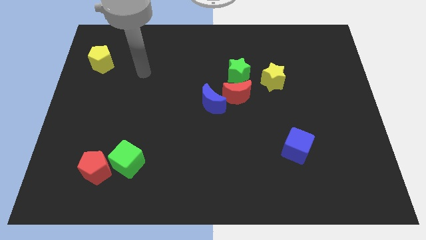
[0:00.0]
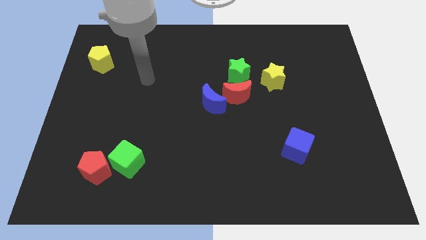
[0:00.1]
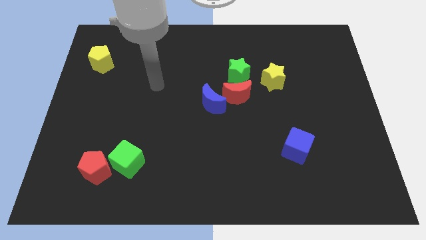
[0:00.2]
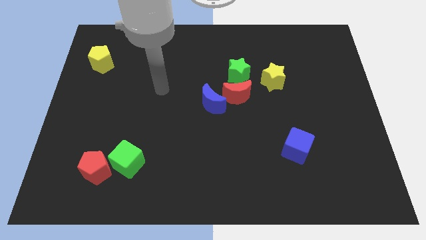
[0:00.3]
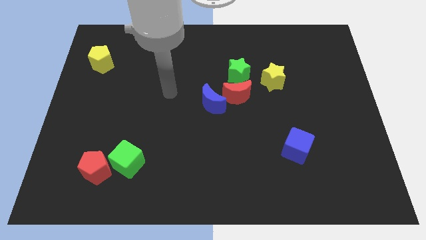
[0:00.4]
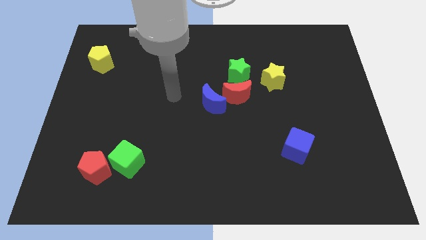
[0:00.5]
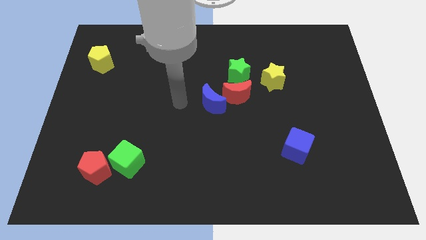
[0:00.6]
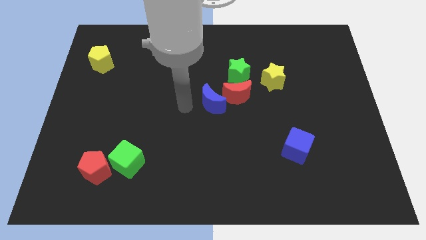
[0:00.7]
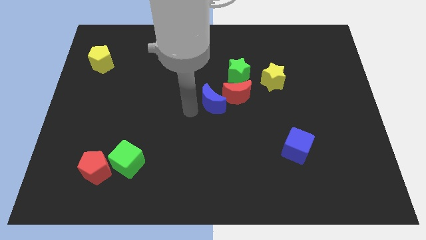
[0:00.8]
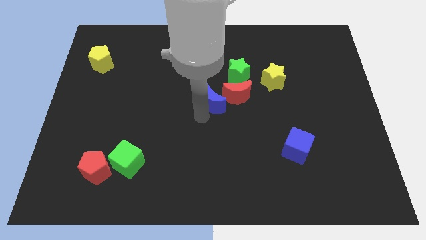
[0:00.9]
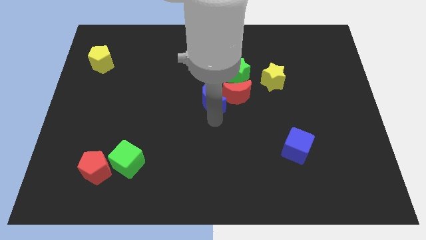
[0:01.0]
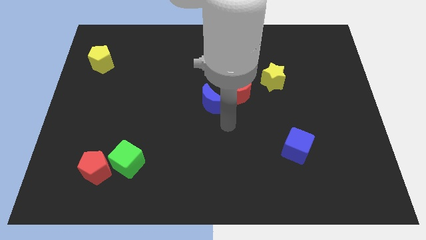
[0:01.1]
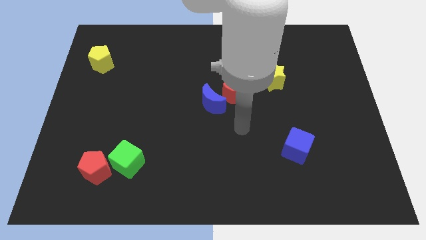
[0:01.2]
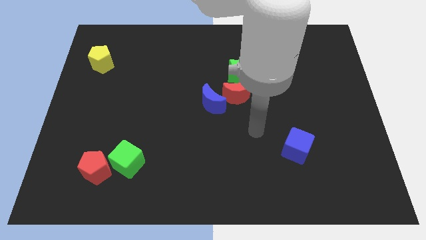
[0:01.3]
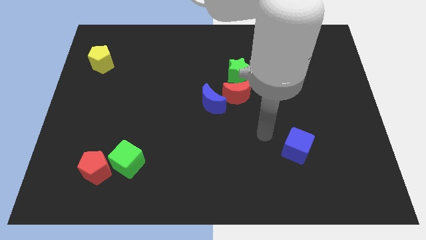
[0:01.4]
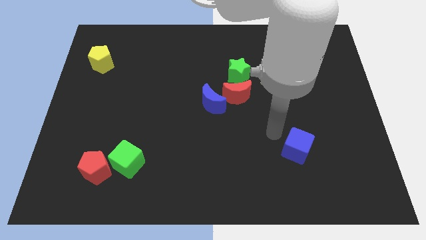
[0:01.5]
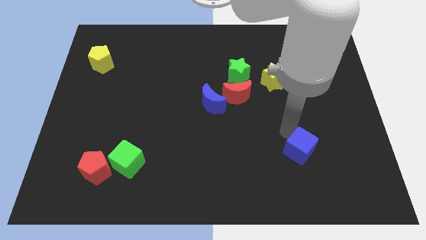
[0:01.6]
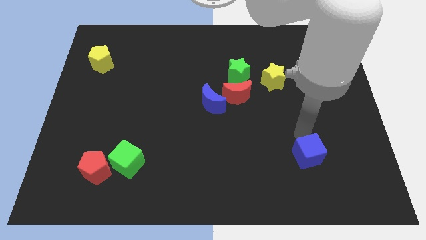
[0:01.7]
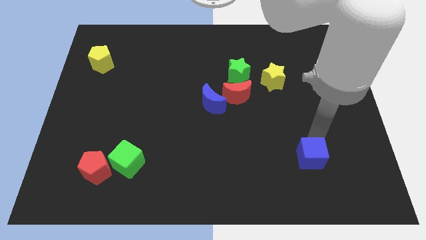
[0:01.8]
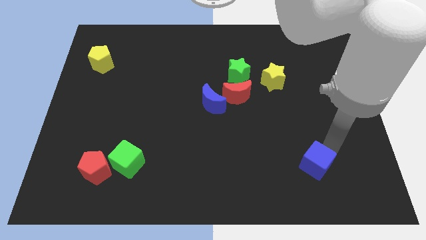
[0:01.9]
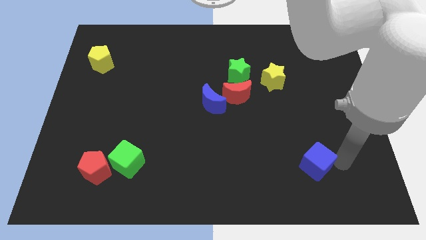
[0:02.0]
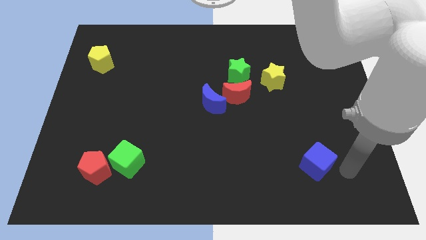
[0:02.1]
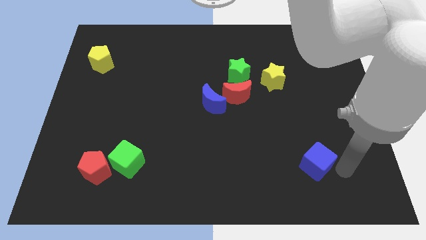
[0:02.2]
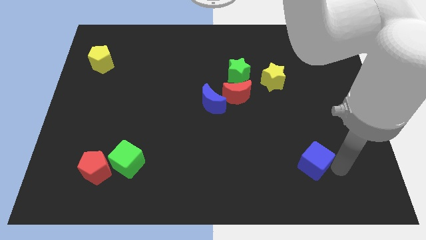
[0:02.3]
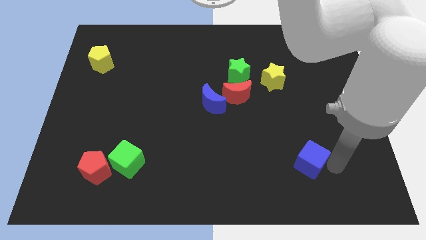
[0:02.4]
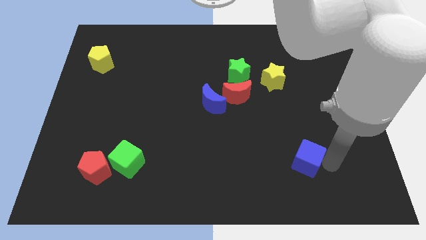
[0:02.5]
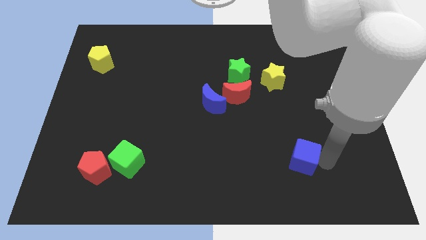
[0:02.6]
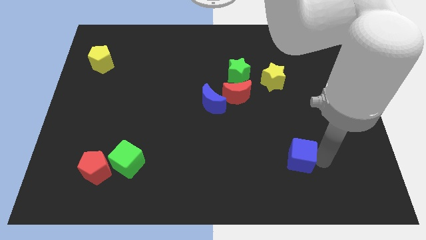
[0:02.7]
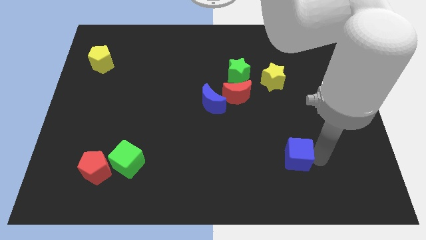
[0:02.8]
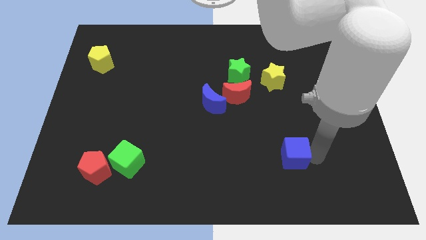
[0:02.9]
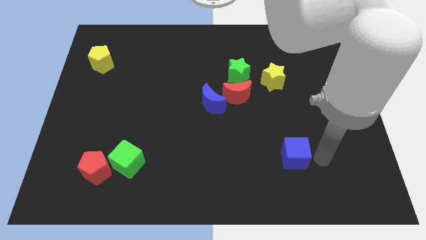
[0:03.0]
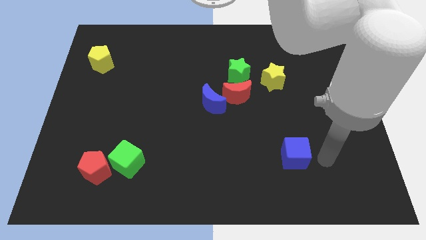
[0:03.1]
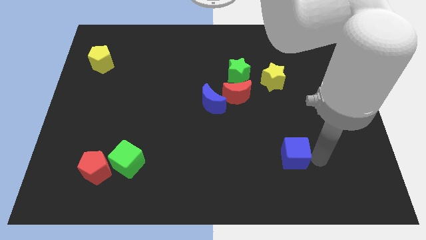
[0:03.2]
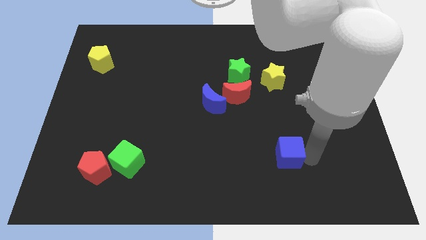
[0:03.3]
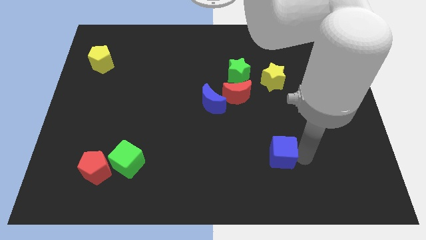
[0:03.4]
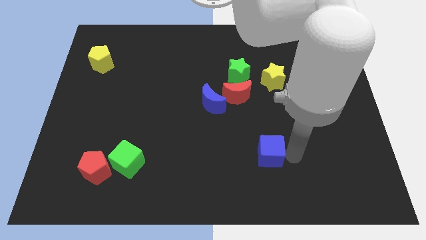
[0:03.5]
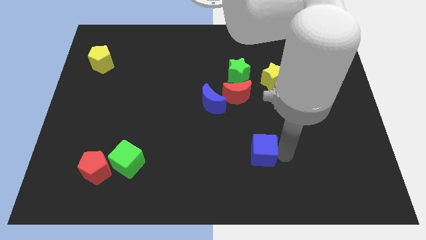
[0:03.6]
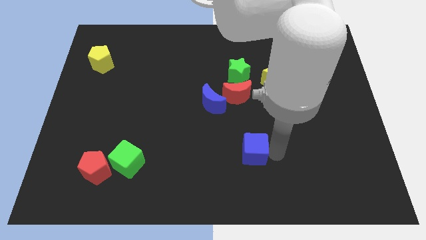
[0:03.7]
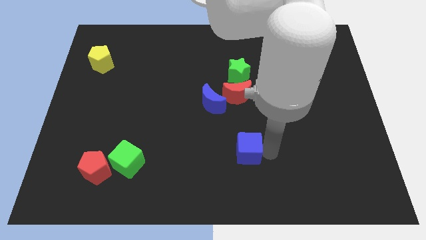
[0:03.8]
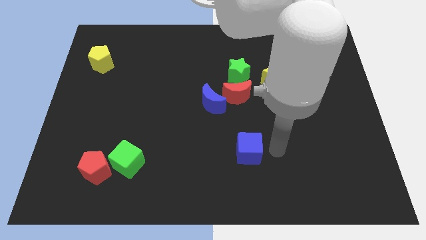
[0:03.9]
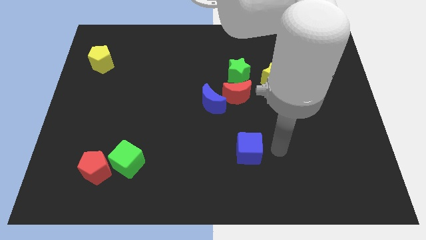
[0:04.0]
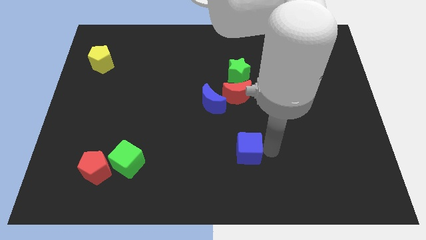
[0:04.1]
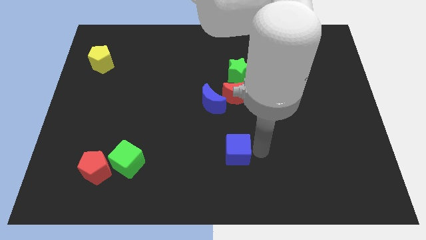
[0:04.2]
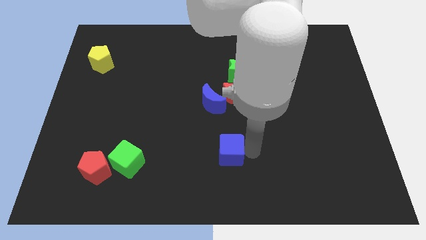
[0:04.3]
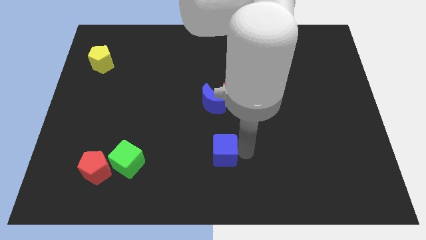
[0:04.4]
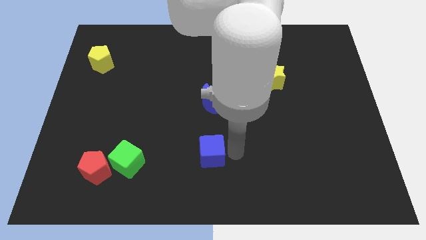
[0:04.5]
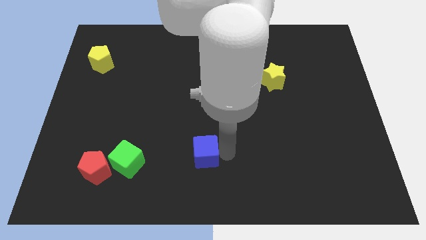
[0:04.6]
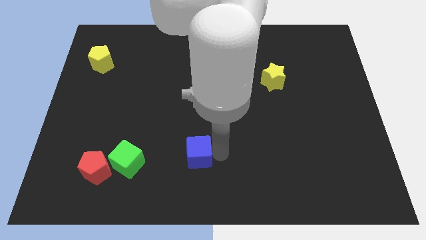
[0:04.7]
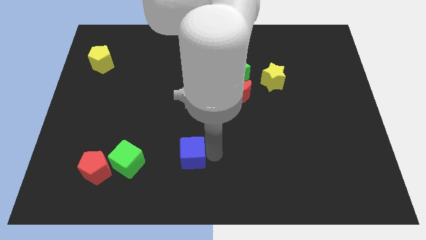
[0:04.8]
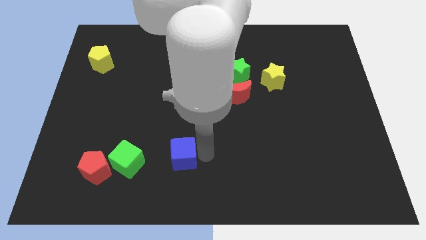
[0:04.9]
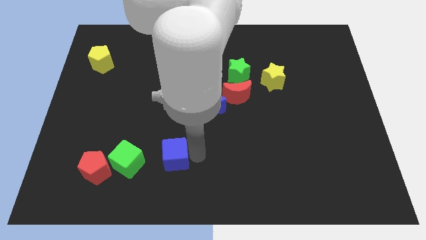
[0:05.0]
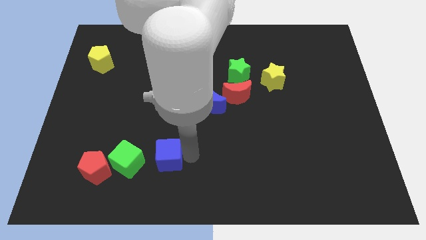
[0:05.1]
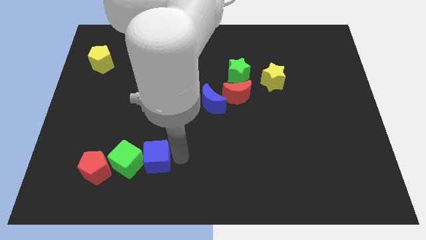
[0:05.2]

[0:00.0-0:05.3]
put the blue cube to the green cube

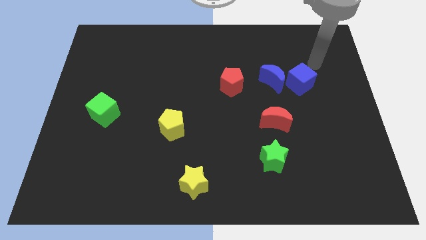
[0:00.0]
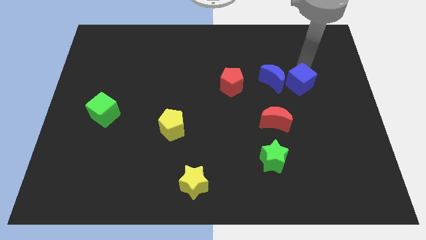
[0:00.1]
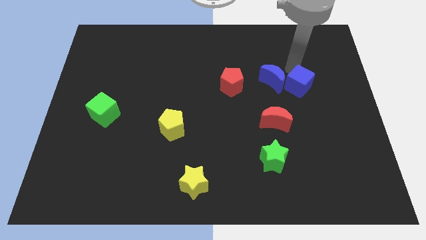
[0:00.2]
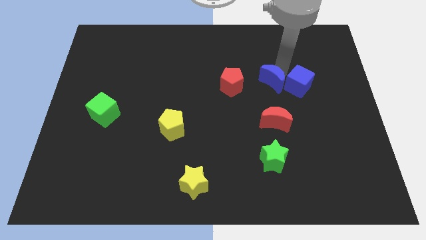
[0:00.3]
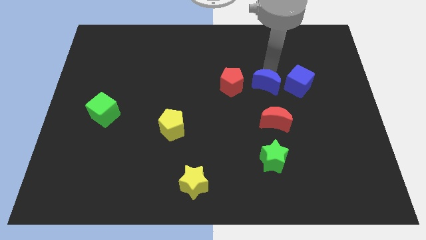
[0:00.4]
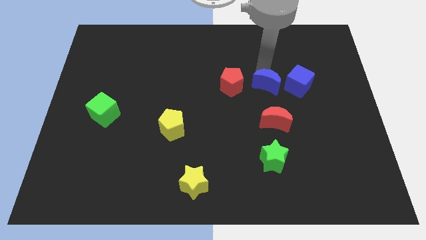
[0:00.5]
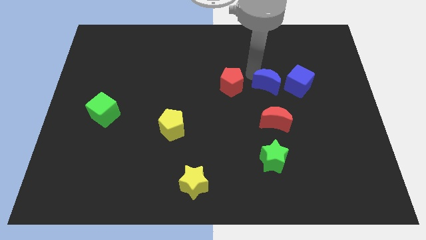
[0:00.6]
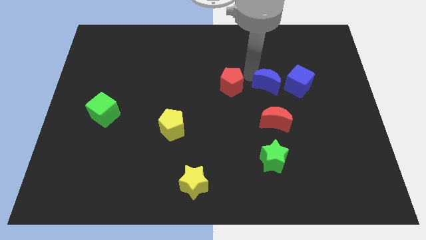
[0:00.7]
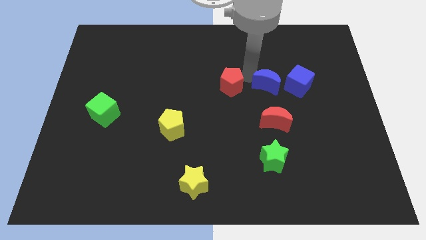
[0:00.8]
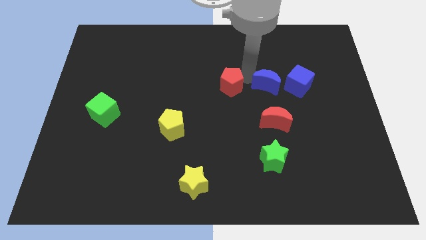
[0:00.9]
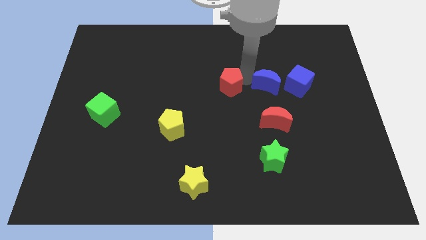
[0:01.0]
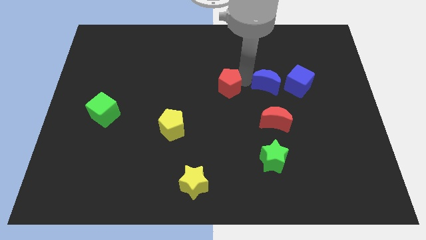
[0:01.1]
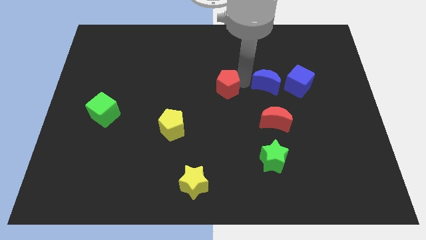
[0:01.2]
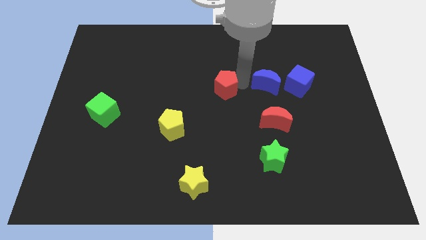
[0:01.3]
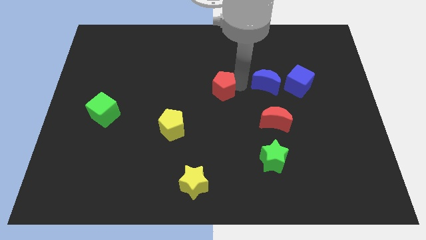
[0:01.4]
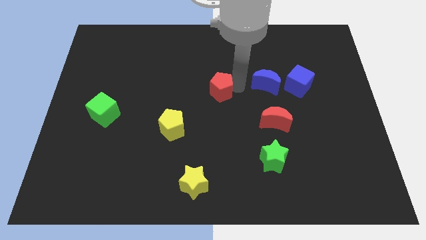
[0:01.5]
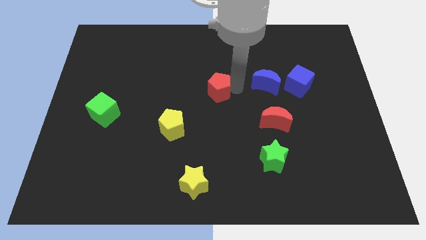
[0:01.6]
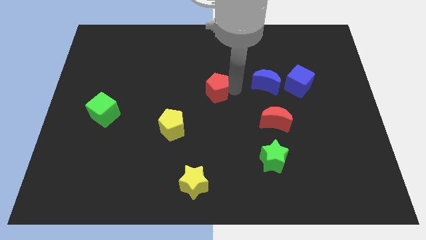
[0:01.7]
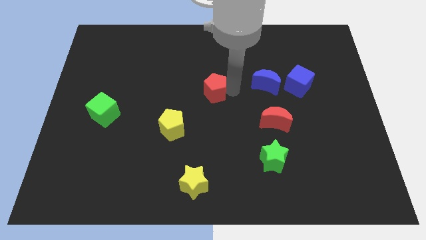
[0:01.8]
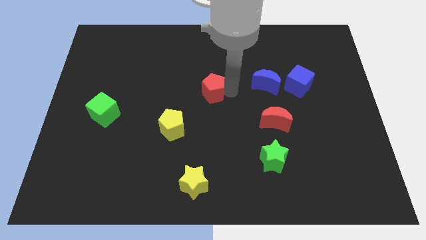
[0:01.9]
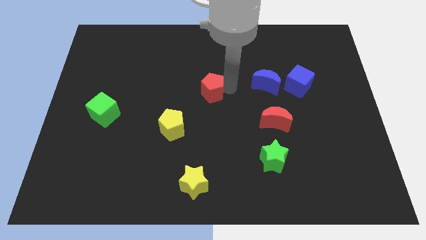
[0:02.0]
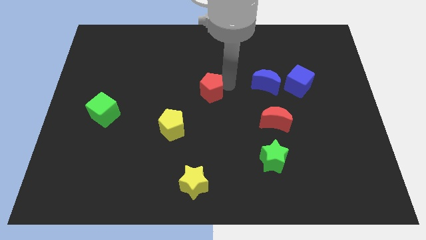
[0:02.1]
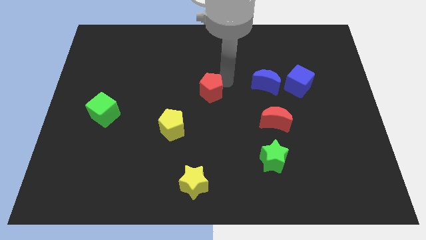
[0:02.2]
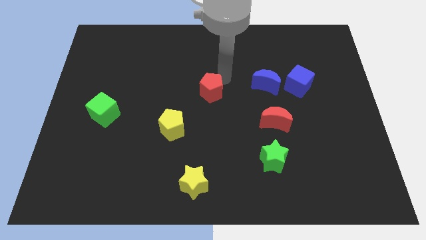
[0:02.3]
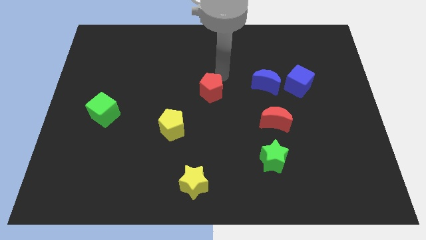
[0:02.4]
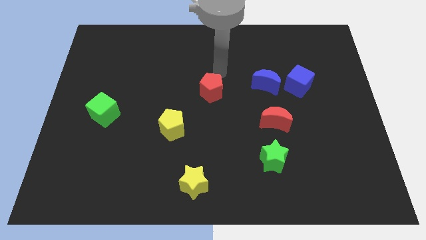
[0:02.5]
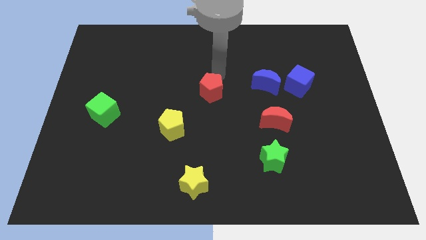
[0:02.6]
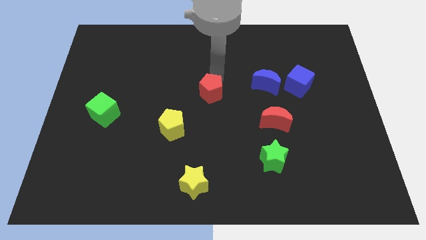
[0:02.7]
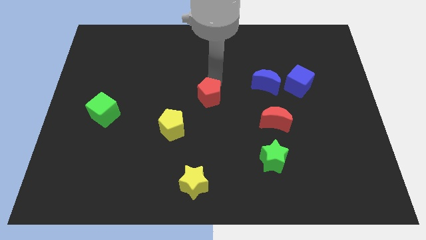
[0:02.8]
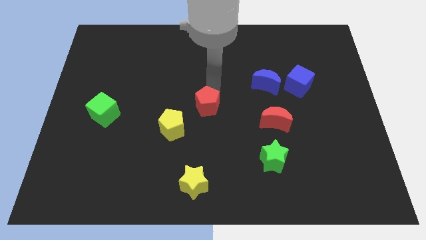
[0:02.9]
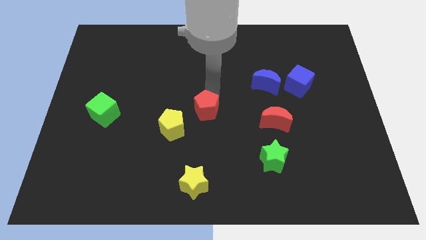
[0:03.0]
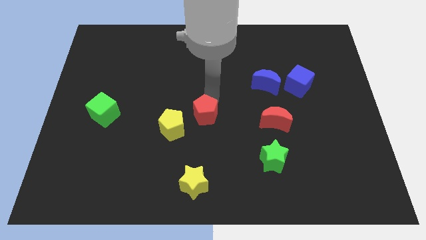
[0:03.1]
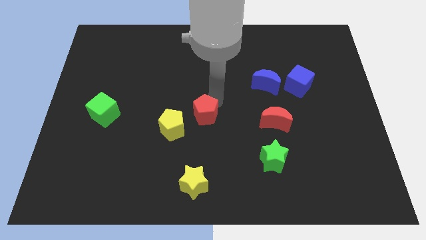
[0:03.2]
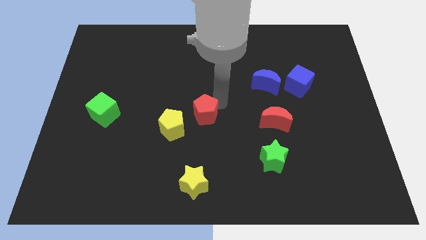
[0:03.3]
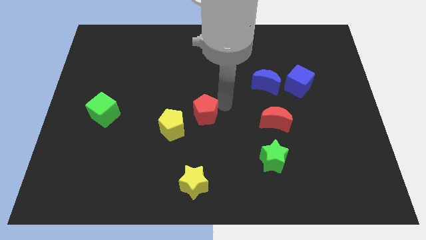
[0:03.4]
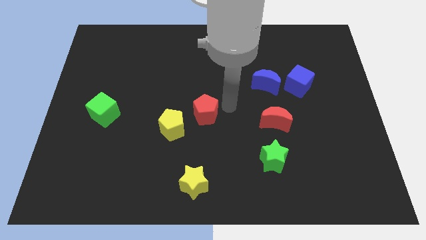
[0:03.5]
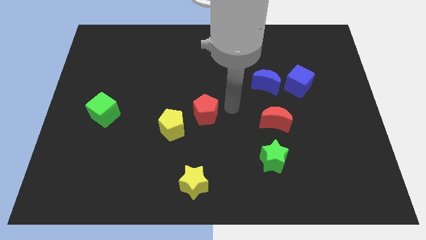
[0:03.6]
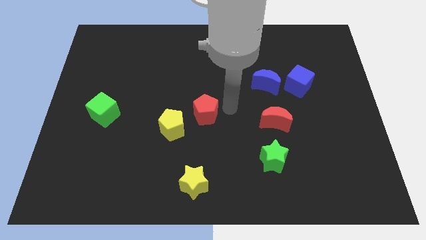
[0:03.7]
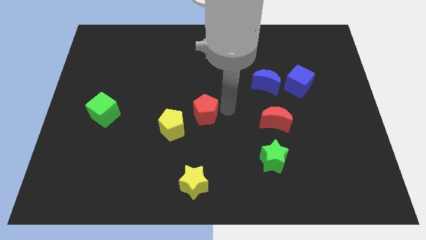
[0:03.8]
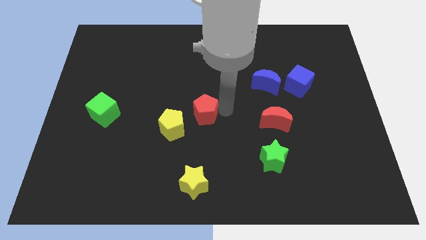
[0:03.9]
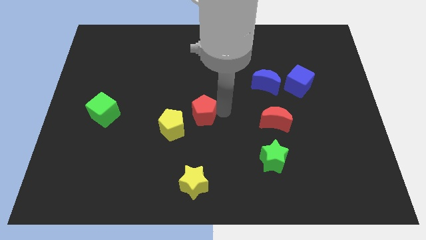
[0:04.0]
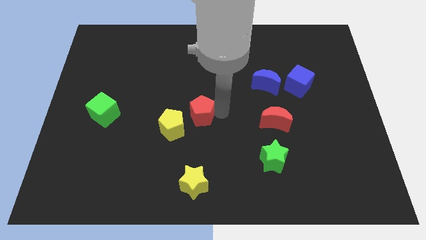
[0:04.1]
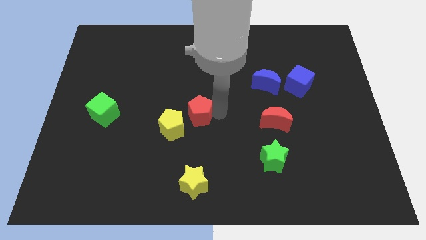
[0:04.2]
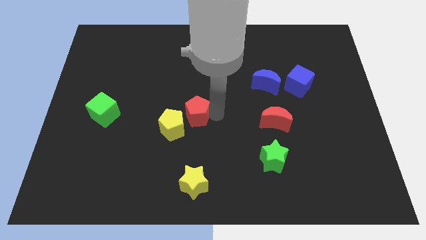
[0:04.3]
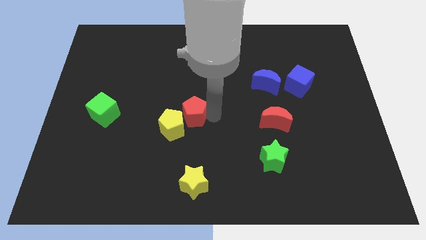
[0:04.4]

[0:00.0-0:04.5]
put the red pentagon next to the yellow pentagon
